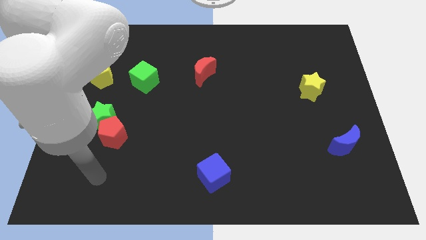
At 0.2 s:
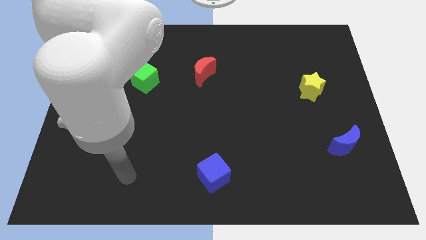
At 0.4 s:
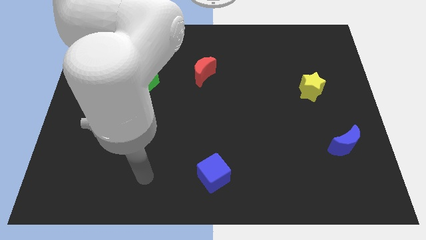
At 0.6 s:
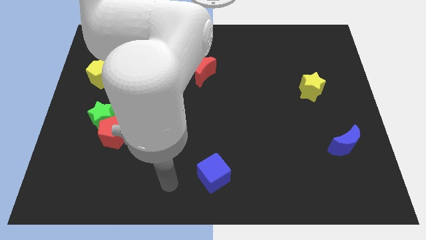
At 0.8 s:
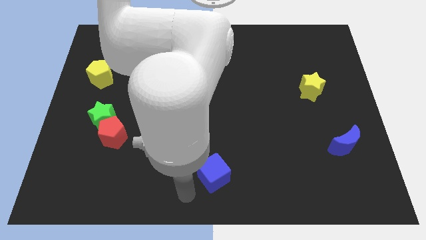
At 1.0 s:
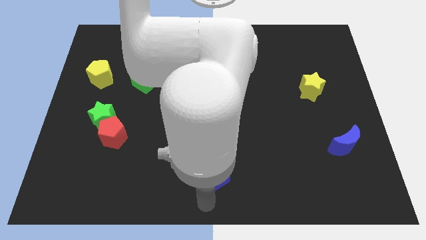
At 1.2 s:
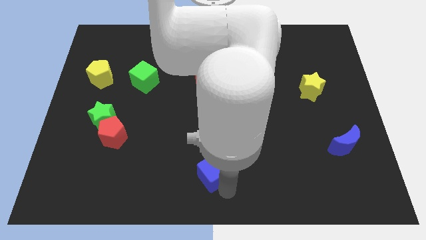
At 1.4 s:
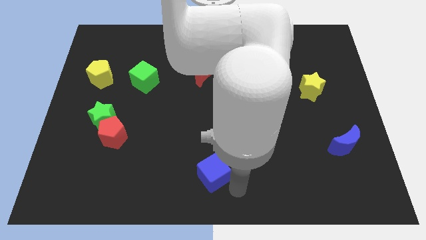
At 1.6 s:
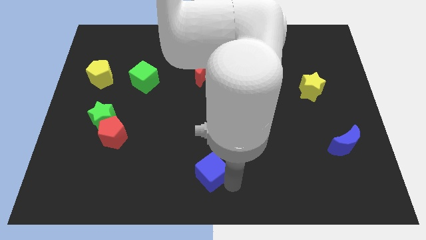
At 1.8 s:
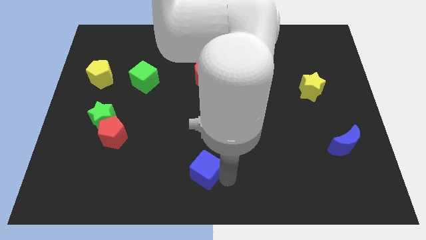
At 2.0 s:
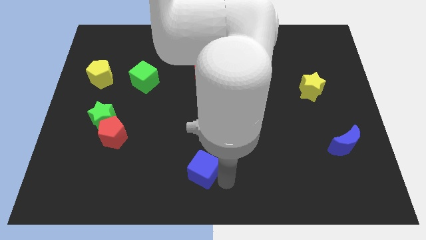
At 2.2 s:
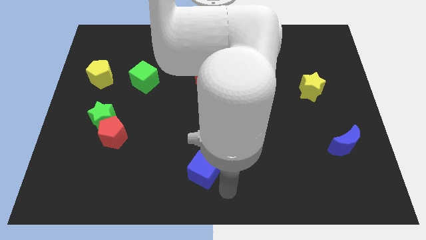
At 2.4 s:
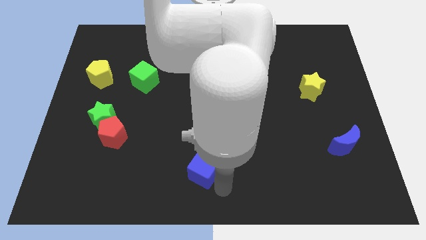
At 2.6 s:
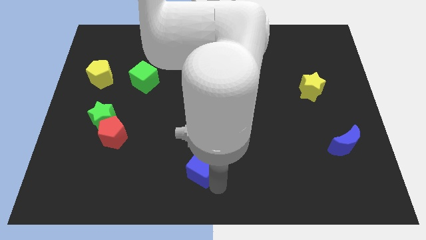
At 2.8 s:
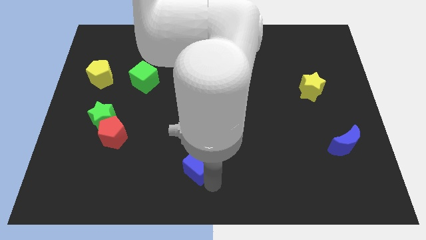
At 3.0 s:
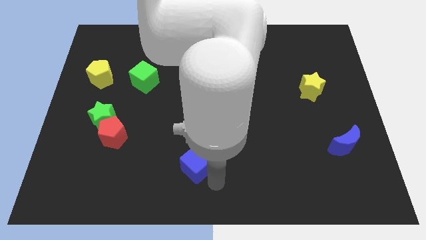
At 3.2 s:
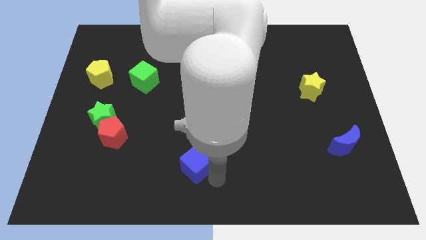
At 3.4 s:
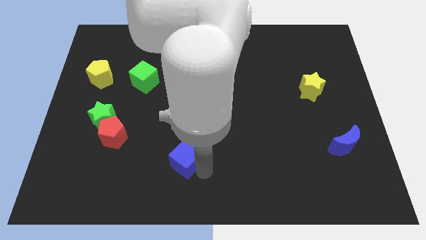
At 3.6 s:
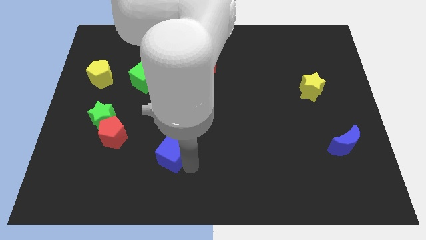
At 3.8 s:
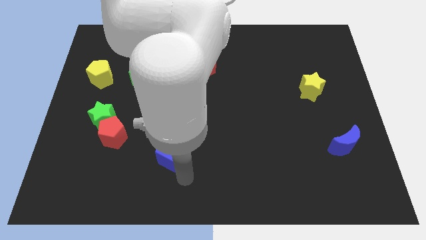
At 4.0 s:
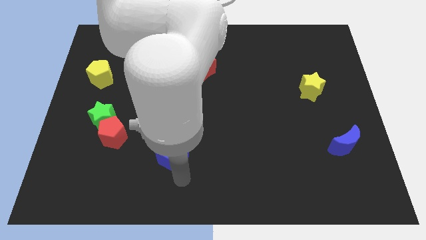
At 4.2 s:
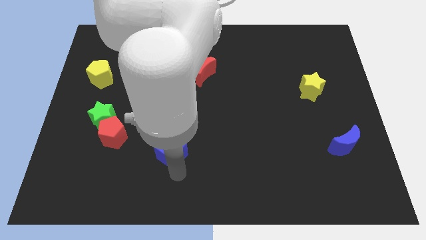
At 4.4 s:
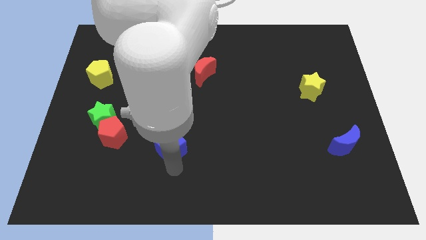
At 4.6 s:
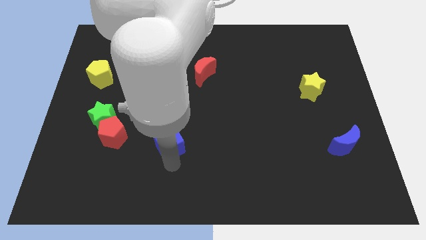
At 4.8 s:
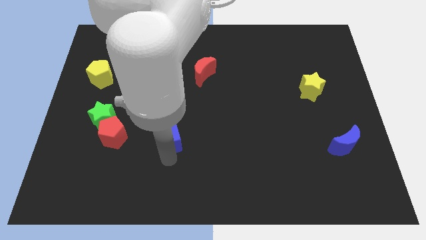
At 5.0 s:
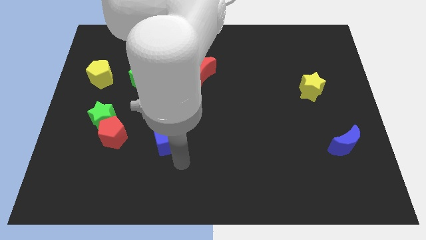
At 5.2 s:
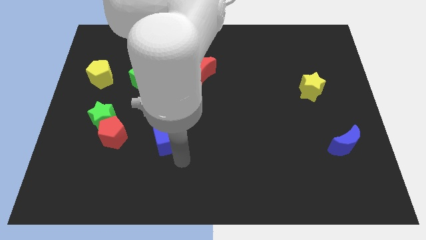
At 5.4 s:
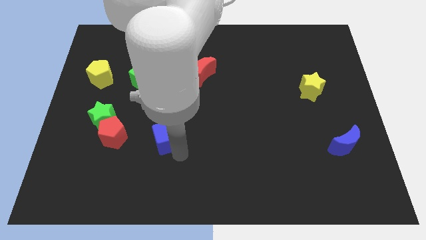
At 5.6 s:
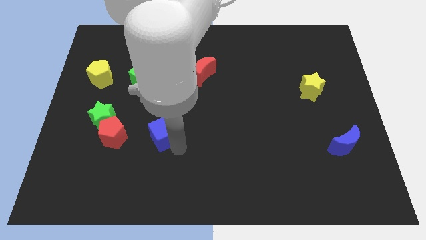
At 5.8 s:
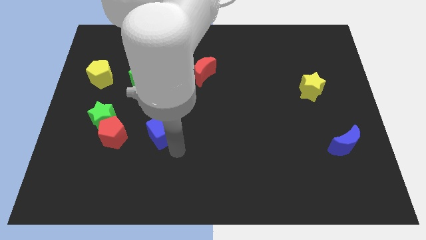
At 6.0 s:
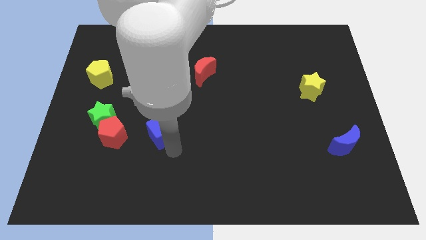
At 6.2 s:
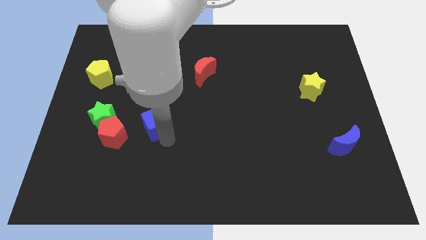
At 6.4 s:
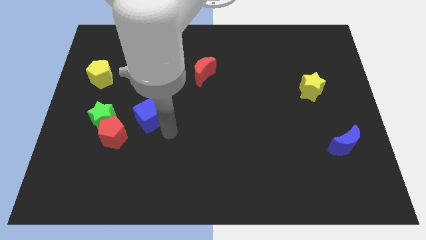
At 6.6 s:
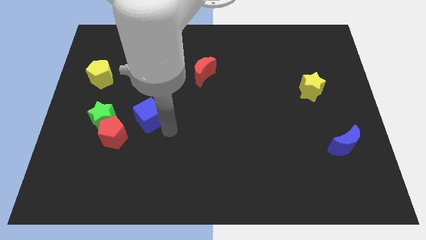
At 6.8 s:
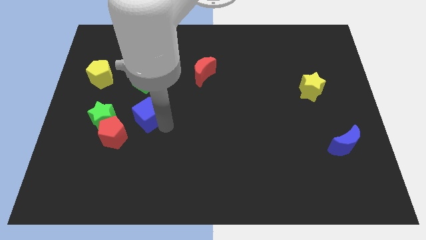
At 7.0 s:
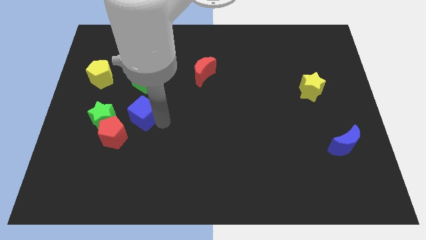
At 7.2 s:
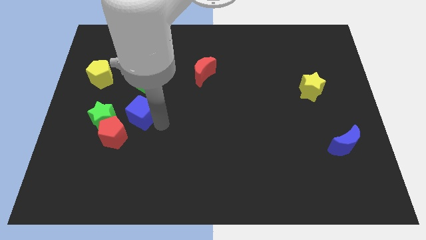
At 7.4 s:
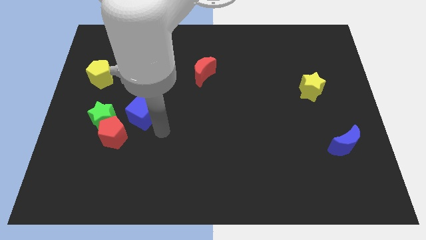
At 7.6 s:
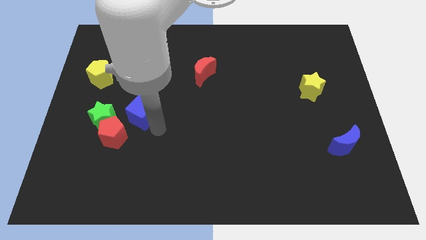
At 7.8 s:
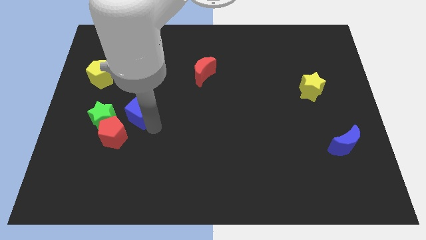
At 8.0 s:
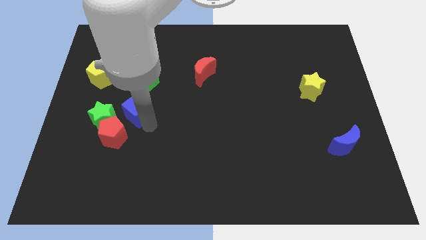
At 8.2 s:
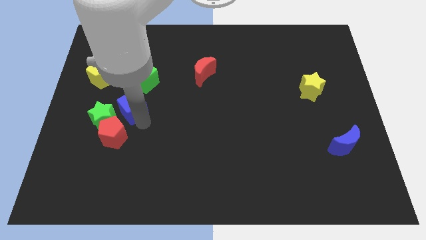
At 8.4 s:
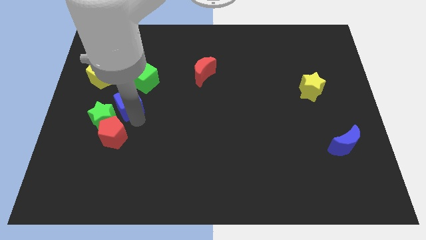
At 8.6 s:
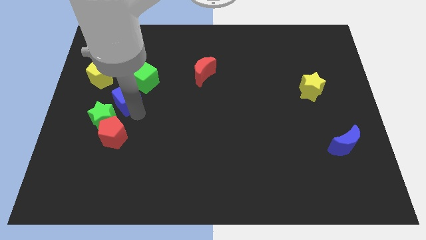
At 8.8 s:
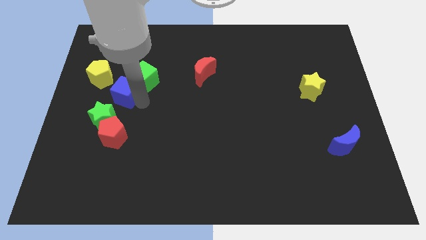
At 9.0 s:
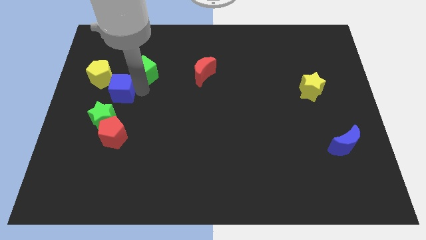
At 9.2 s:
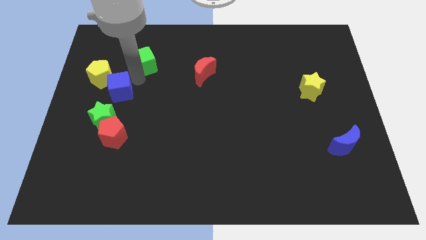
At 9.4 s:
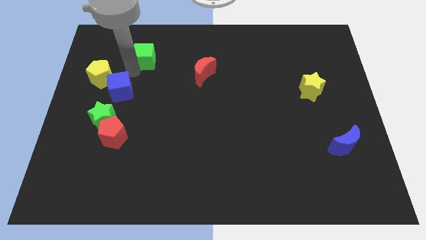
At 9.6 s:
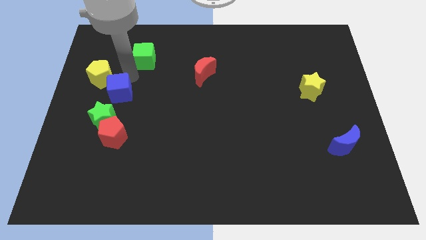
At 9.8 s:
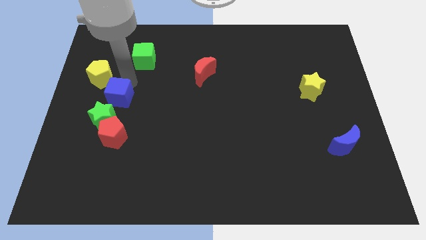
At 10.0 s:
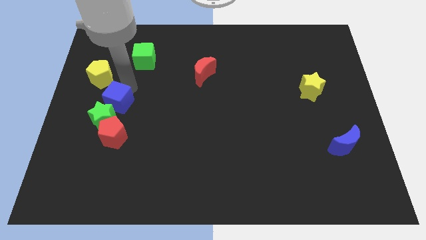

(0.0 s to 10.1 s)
put the blue cube towards the green star

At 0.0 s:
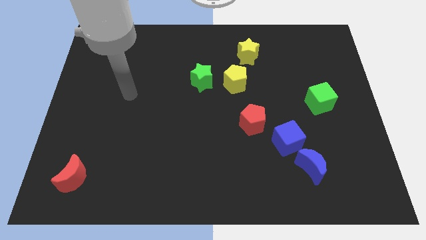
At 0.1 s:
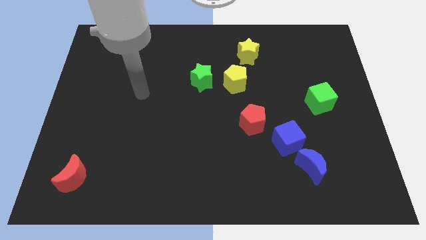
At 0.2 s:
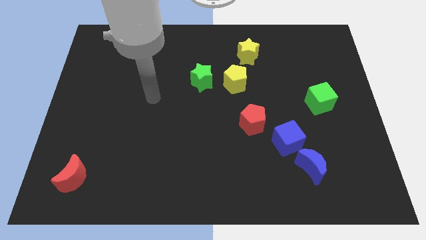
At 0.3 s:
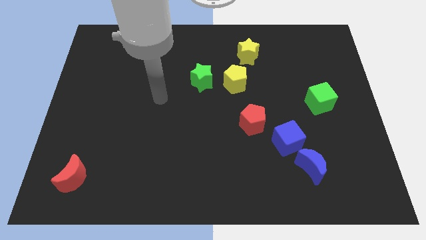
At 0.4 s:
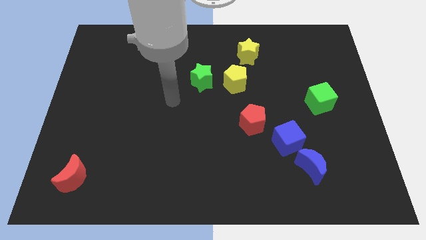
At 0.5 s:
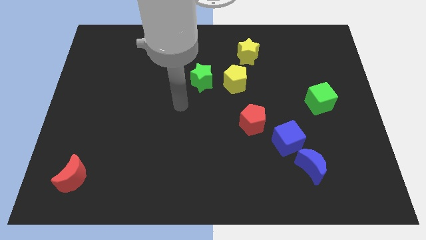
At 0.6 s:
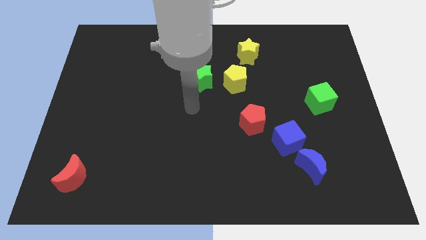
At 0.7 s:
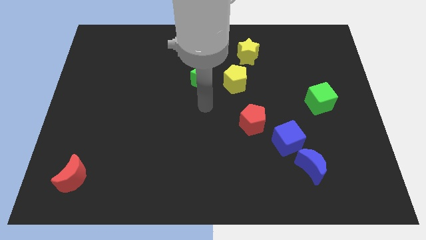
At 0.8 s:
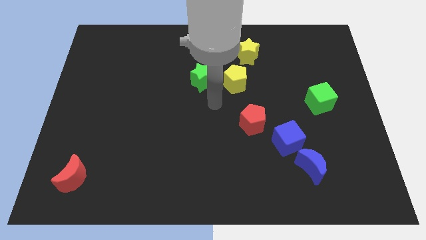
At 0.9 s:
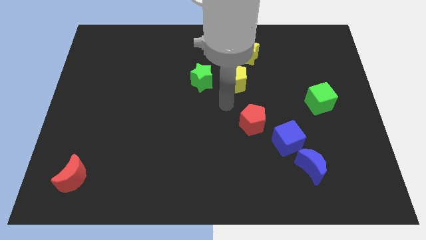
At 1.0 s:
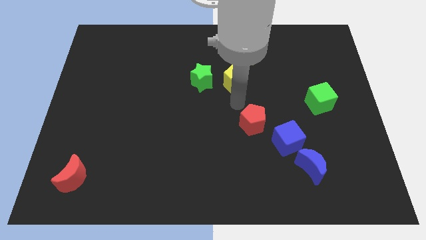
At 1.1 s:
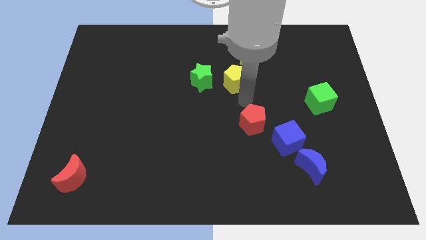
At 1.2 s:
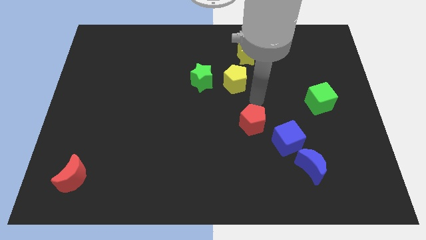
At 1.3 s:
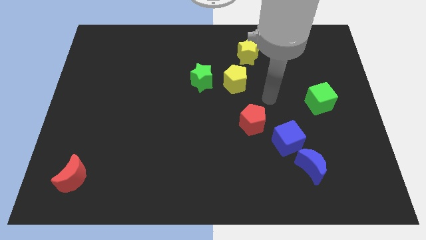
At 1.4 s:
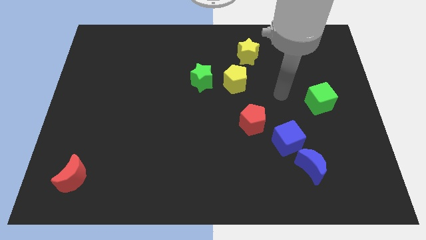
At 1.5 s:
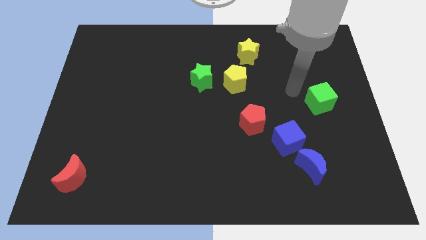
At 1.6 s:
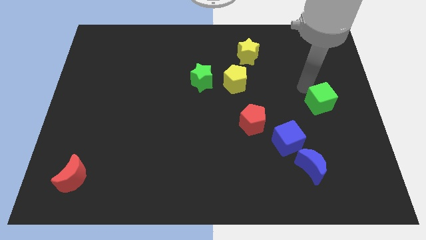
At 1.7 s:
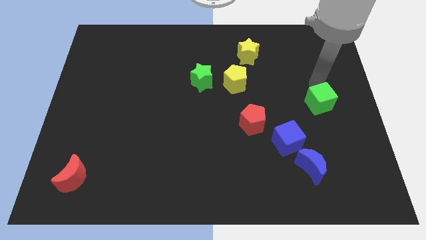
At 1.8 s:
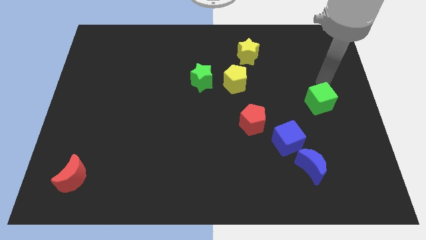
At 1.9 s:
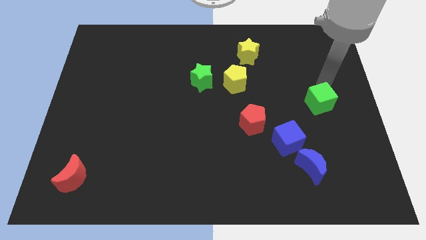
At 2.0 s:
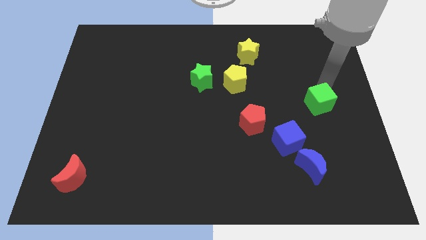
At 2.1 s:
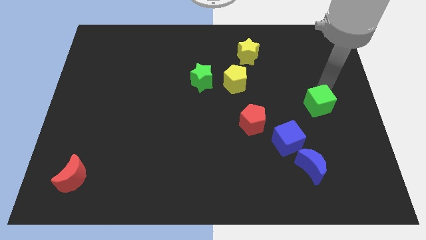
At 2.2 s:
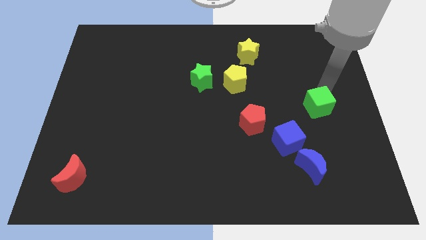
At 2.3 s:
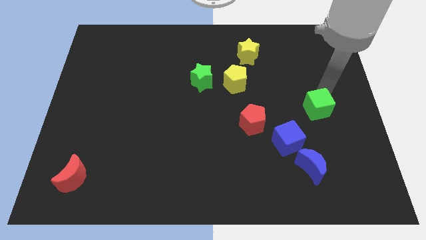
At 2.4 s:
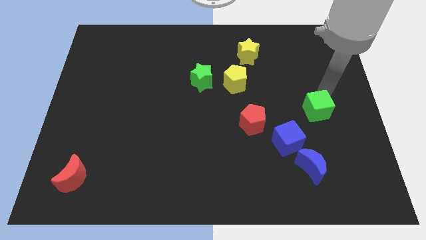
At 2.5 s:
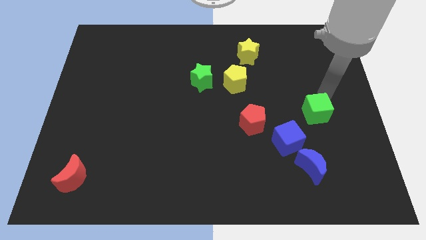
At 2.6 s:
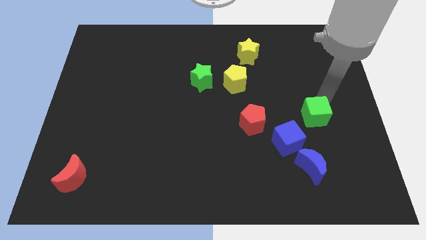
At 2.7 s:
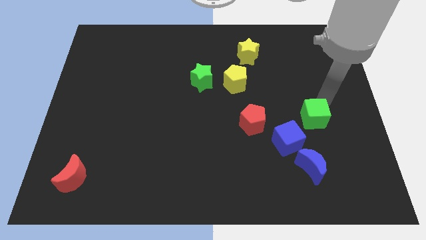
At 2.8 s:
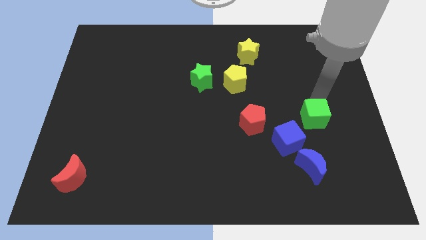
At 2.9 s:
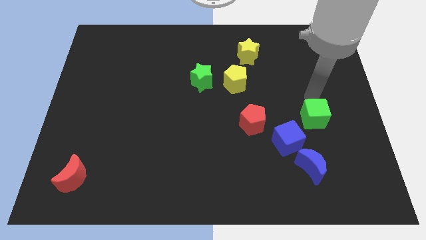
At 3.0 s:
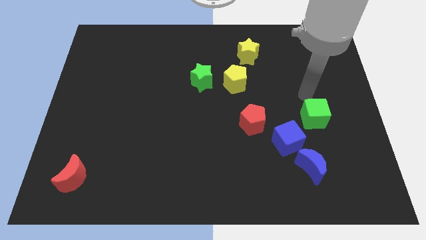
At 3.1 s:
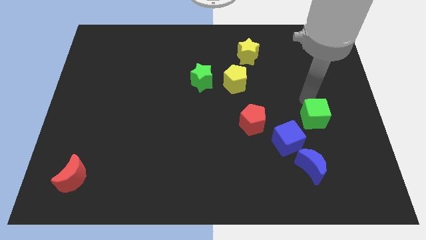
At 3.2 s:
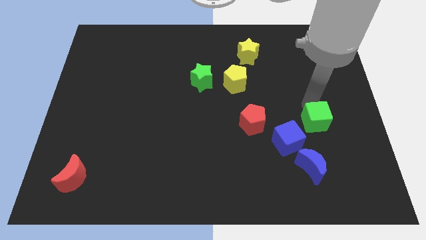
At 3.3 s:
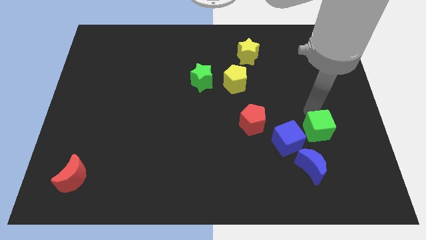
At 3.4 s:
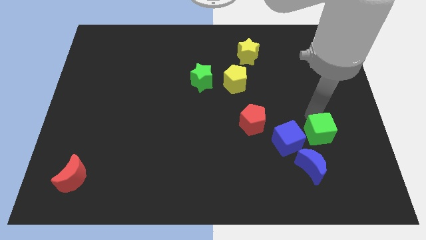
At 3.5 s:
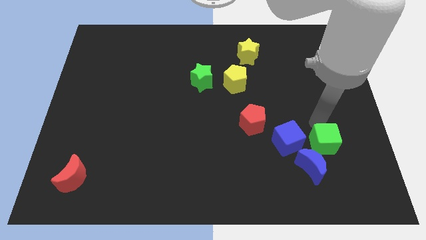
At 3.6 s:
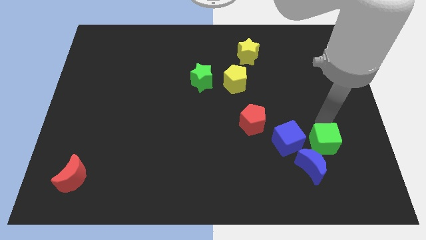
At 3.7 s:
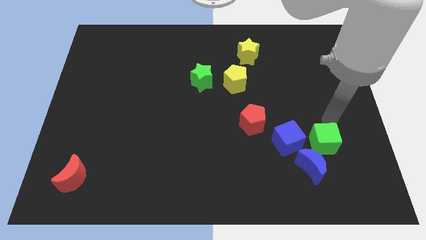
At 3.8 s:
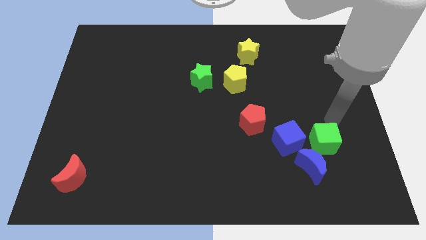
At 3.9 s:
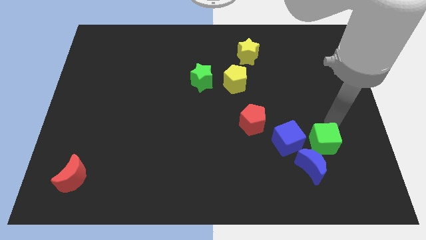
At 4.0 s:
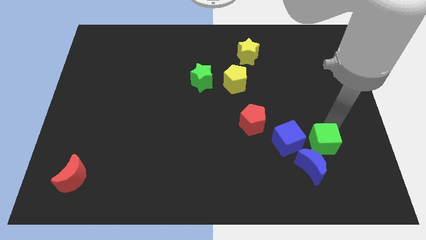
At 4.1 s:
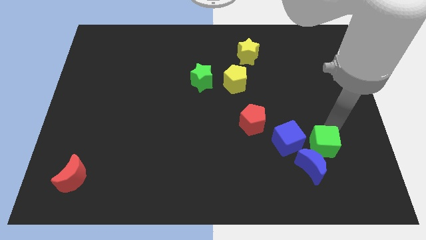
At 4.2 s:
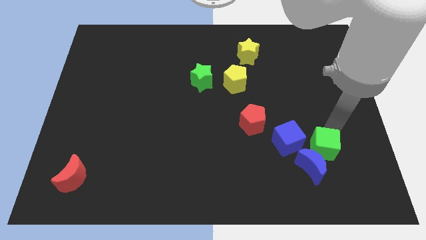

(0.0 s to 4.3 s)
move the green cube to the blue moon
